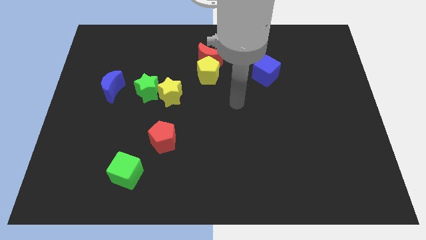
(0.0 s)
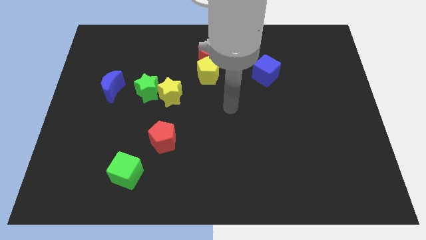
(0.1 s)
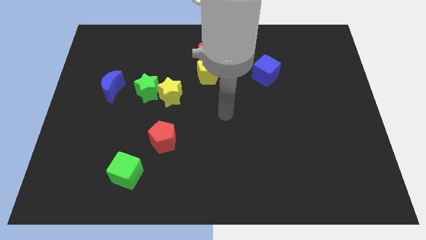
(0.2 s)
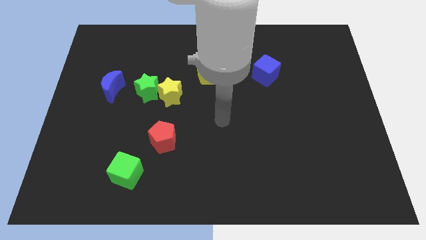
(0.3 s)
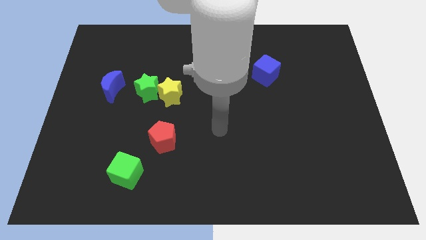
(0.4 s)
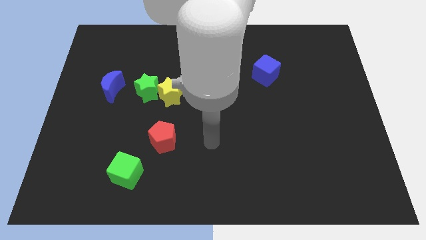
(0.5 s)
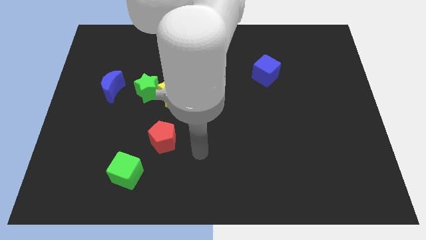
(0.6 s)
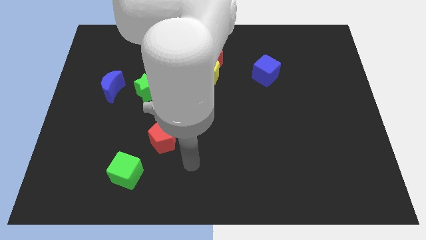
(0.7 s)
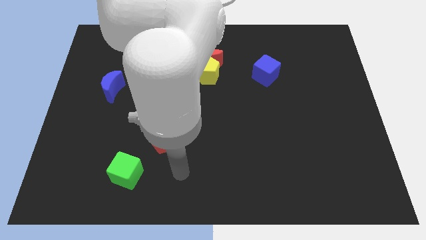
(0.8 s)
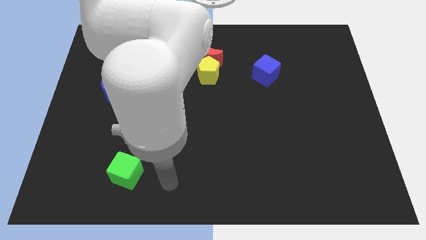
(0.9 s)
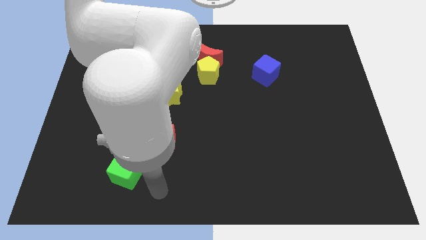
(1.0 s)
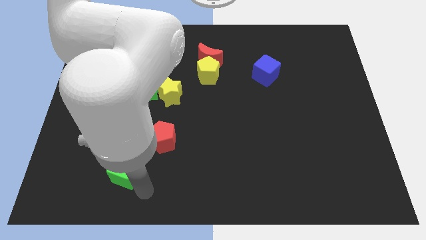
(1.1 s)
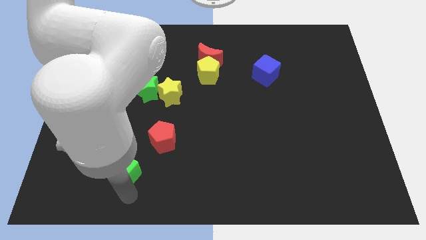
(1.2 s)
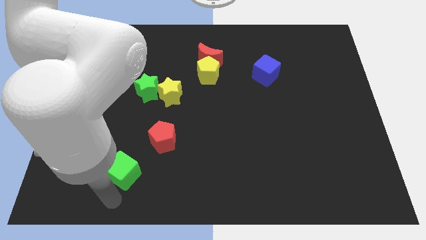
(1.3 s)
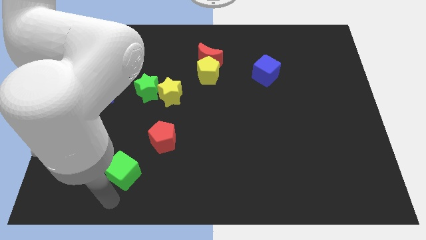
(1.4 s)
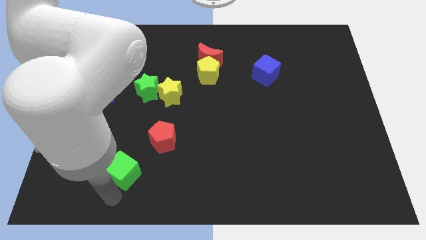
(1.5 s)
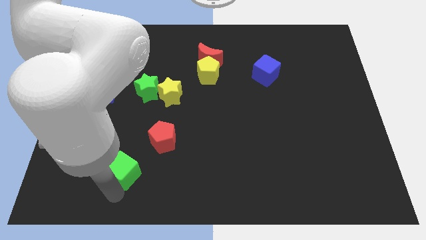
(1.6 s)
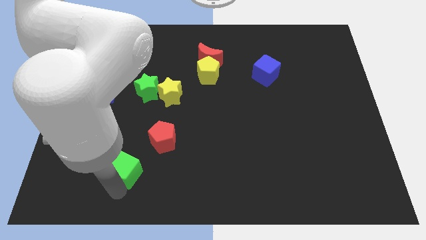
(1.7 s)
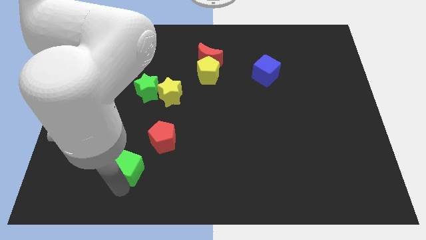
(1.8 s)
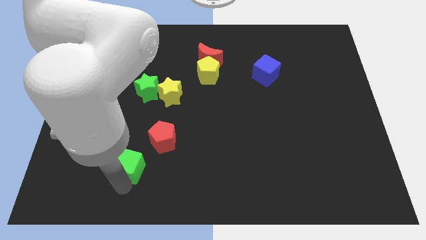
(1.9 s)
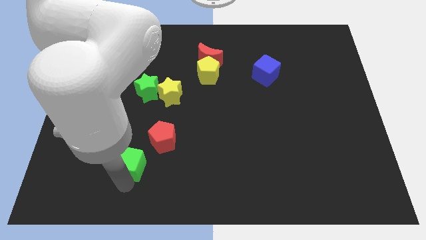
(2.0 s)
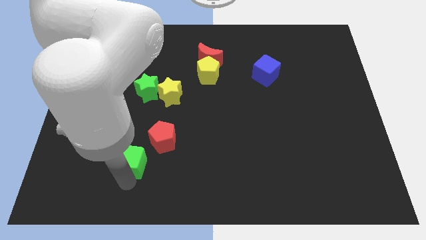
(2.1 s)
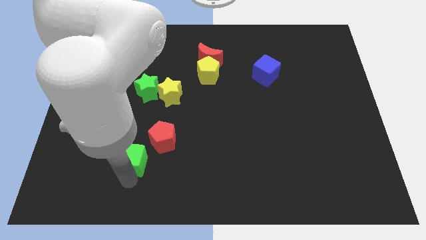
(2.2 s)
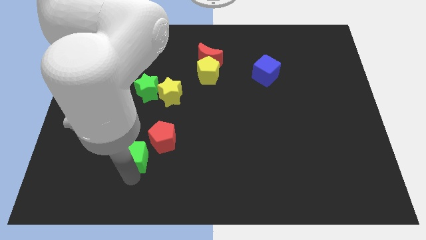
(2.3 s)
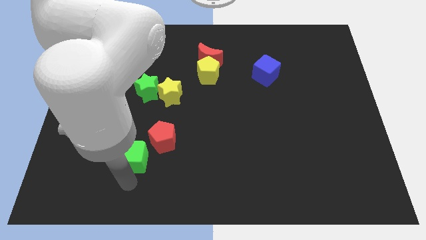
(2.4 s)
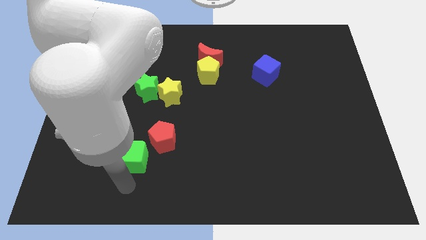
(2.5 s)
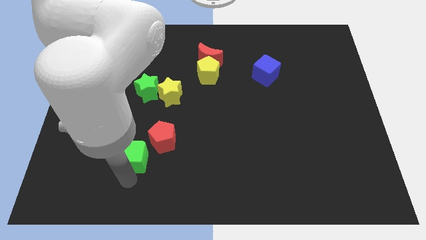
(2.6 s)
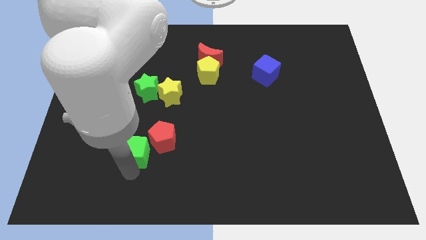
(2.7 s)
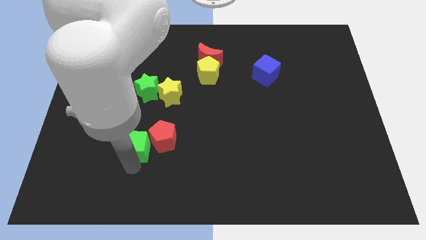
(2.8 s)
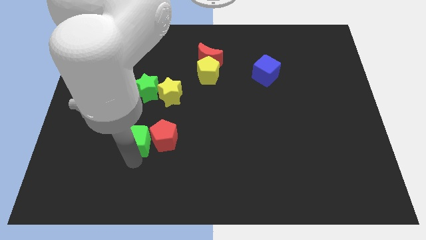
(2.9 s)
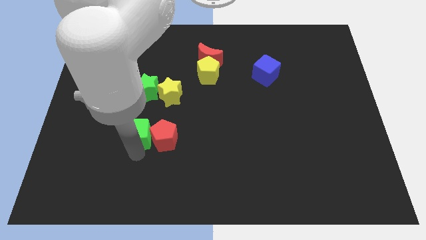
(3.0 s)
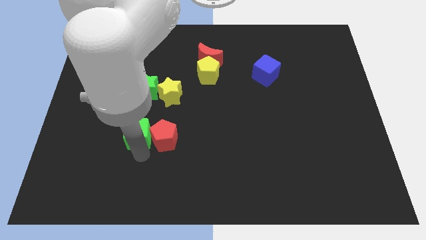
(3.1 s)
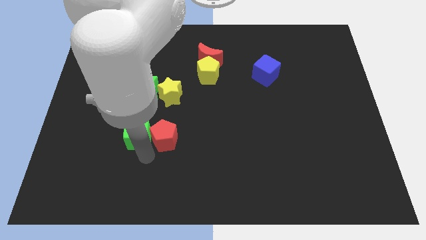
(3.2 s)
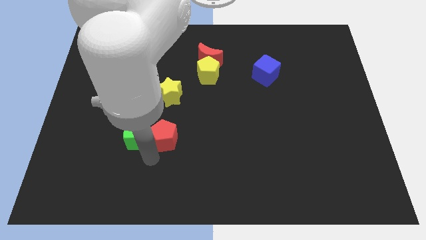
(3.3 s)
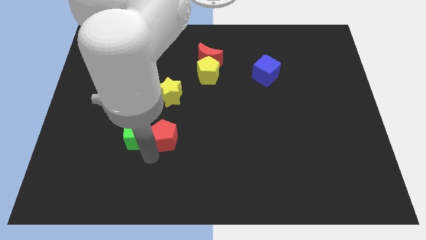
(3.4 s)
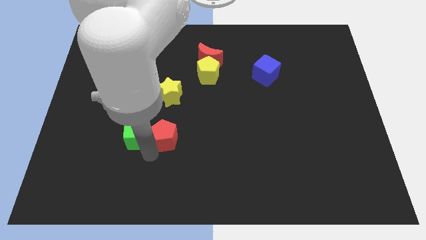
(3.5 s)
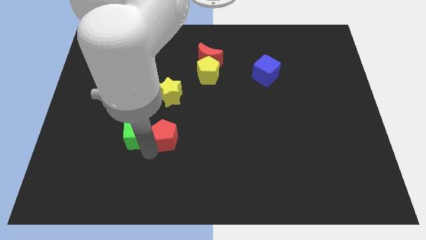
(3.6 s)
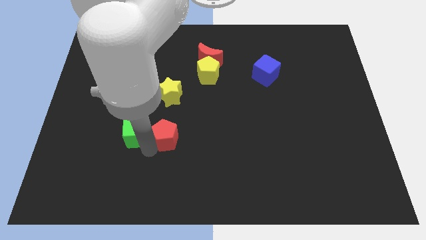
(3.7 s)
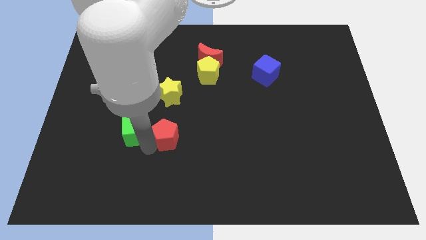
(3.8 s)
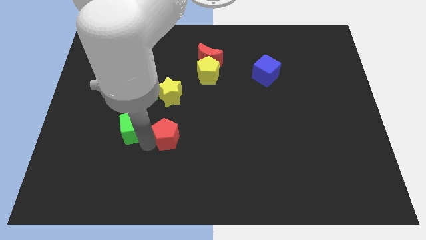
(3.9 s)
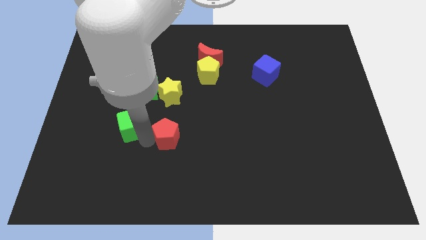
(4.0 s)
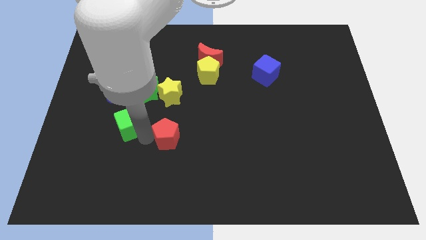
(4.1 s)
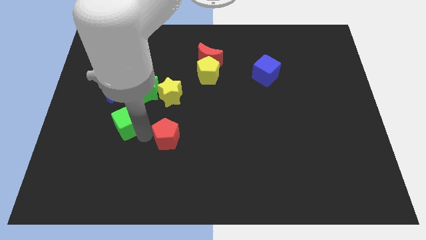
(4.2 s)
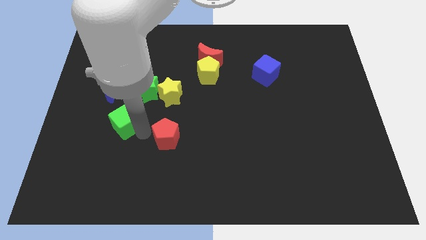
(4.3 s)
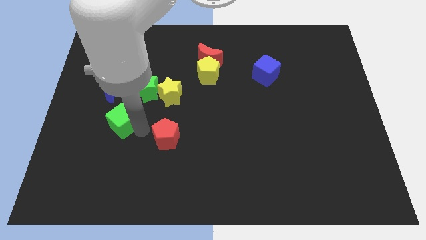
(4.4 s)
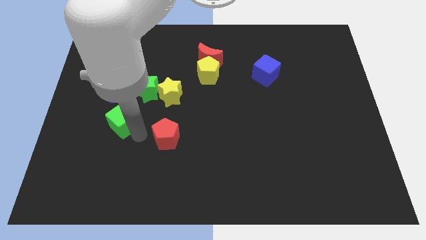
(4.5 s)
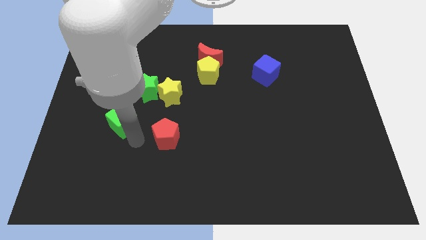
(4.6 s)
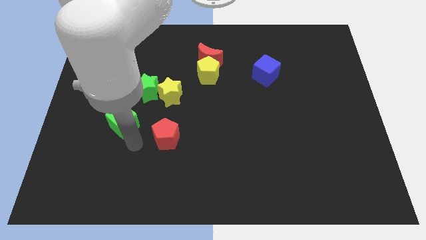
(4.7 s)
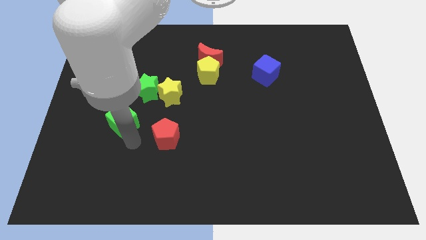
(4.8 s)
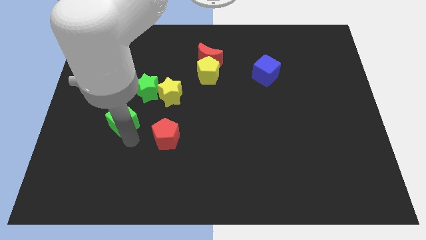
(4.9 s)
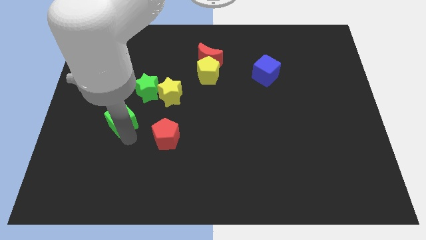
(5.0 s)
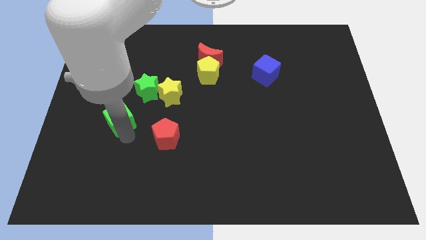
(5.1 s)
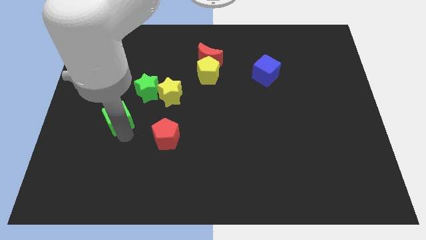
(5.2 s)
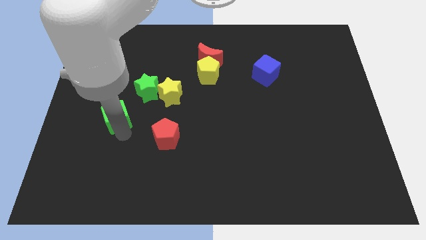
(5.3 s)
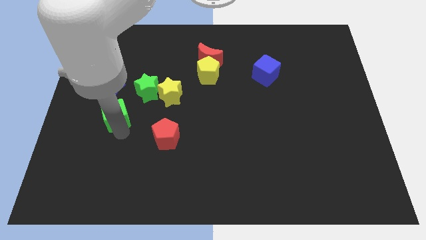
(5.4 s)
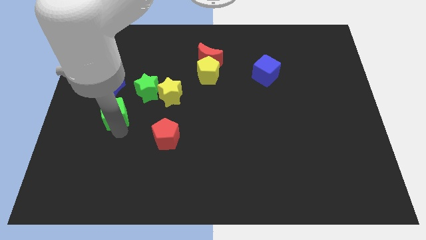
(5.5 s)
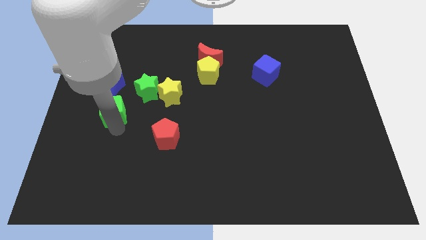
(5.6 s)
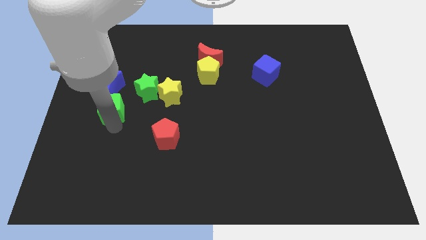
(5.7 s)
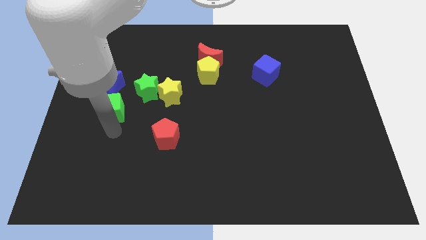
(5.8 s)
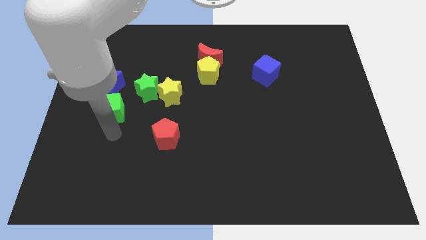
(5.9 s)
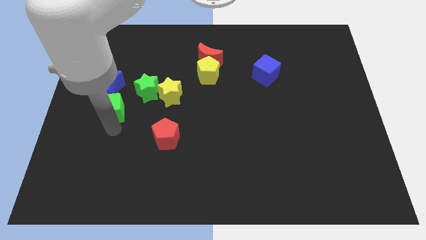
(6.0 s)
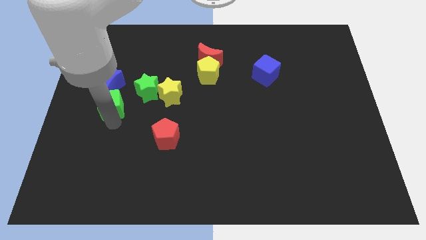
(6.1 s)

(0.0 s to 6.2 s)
put the green cube next to the blue moon
